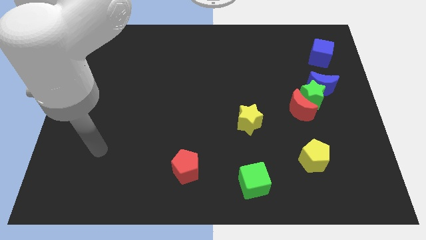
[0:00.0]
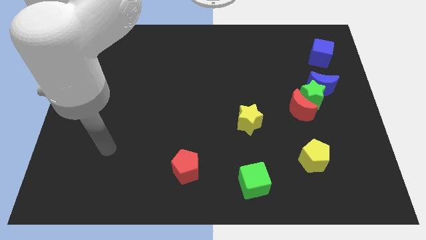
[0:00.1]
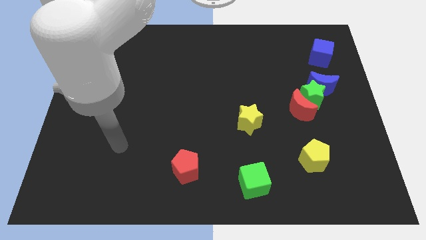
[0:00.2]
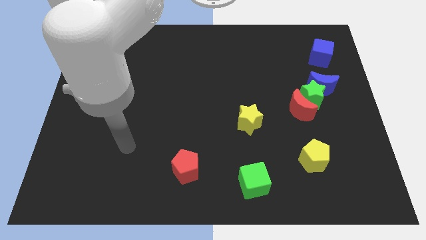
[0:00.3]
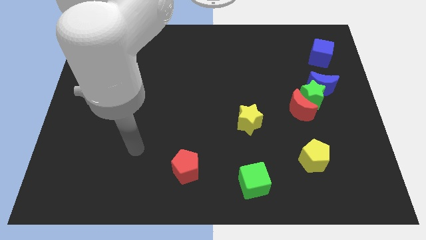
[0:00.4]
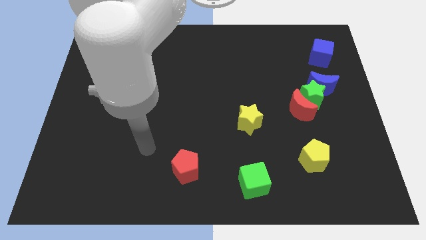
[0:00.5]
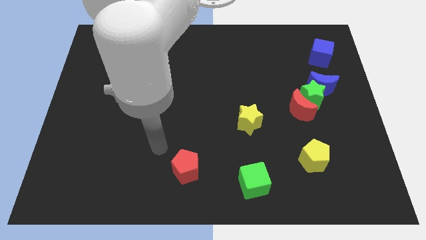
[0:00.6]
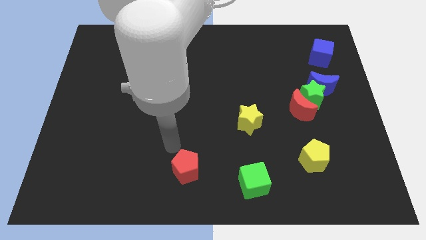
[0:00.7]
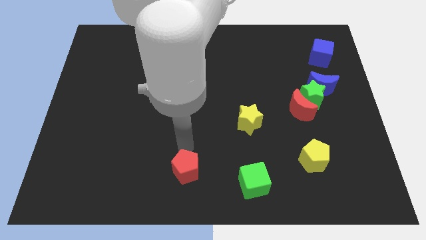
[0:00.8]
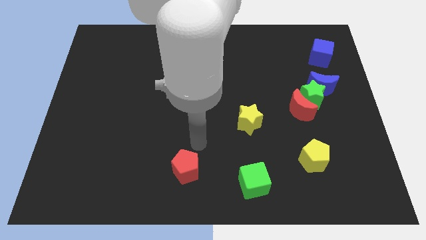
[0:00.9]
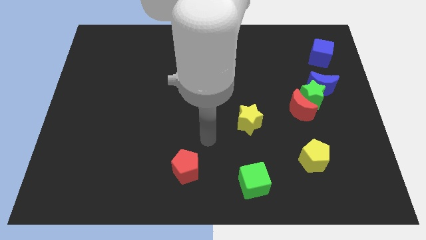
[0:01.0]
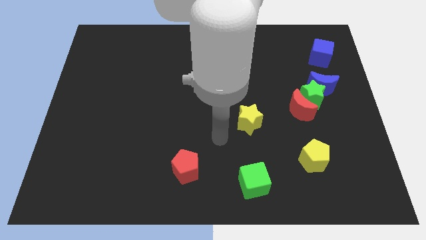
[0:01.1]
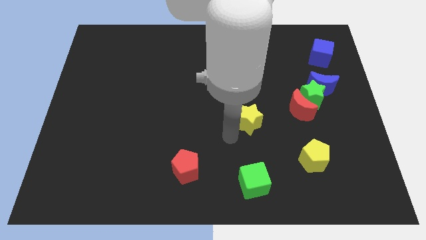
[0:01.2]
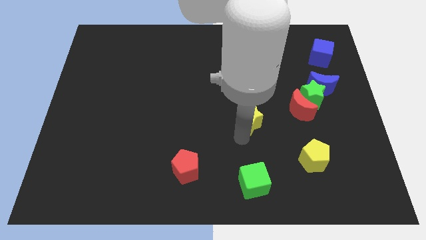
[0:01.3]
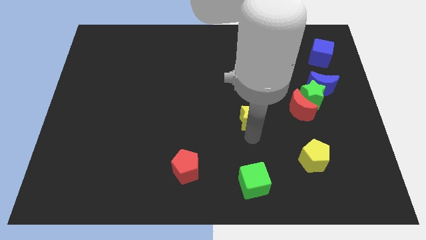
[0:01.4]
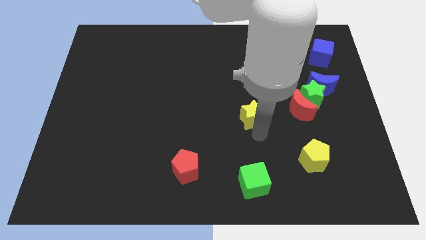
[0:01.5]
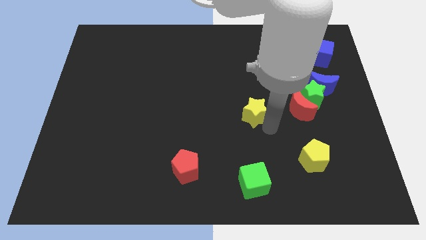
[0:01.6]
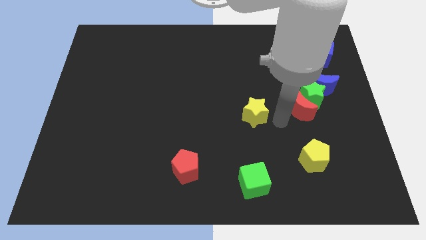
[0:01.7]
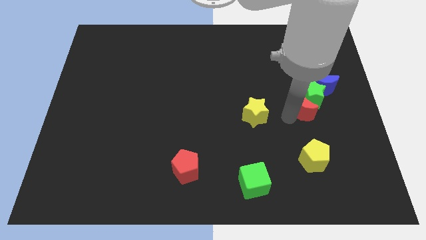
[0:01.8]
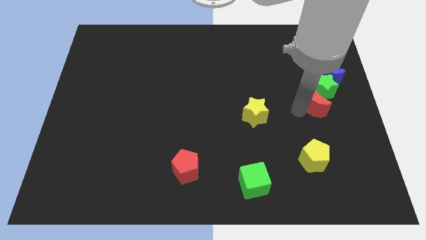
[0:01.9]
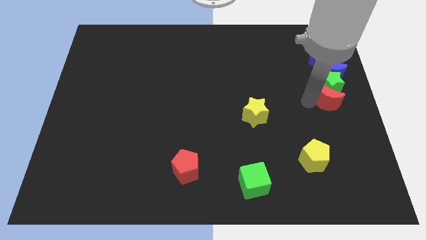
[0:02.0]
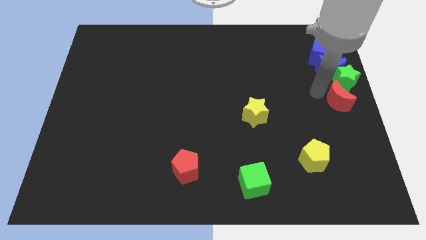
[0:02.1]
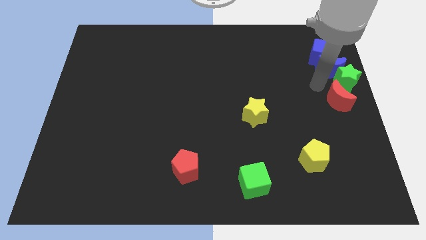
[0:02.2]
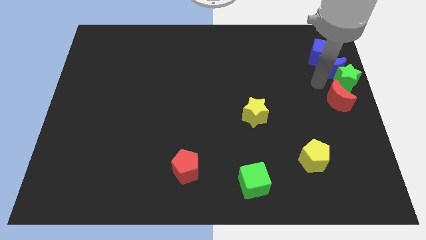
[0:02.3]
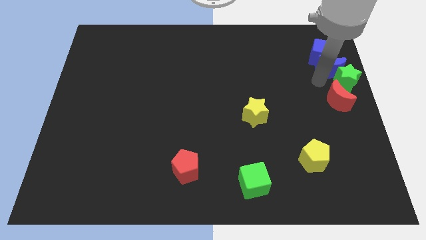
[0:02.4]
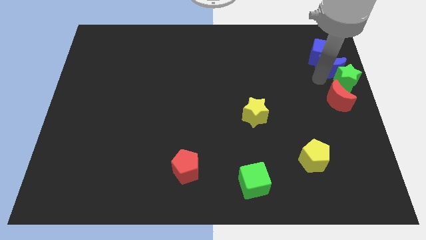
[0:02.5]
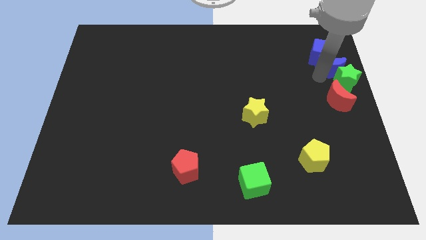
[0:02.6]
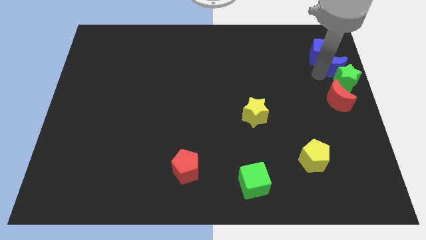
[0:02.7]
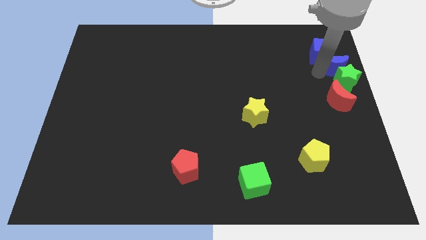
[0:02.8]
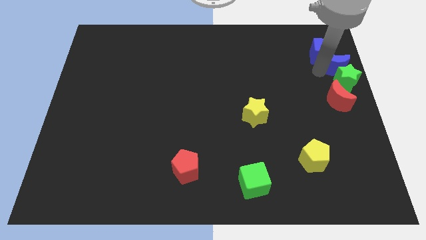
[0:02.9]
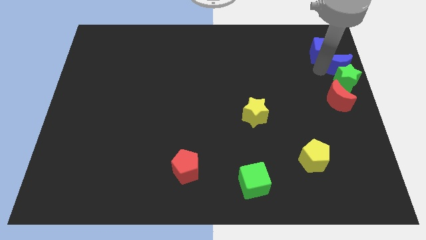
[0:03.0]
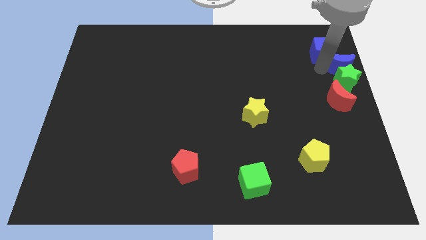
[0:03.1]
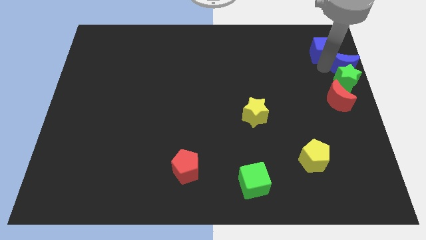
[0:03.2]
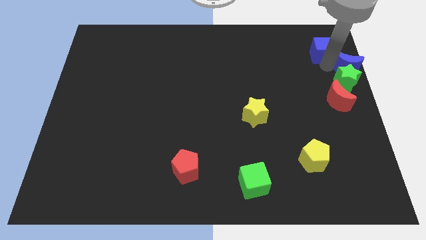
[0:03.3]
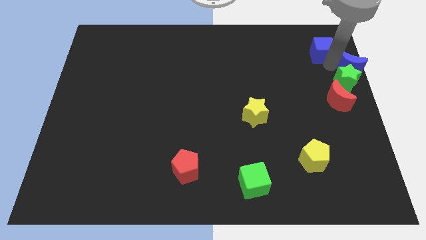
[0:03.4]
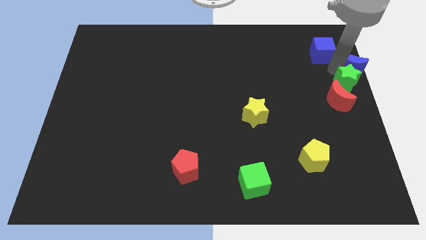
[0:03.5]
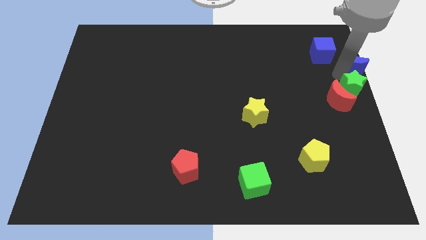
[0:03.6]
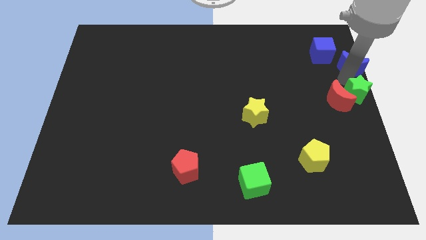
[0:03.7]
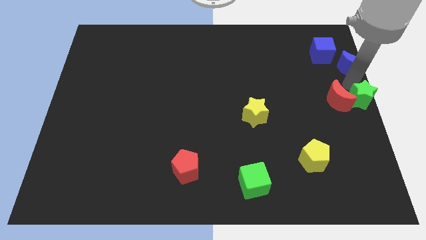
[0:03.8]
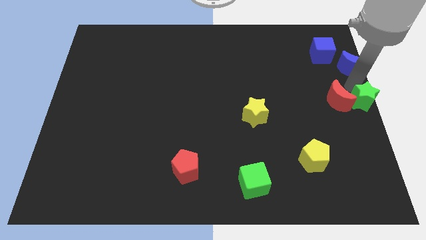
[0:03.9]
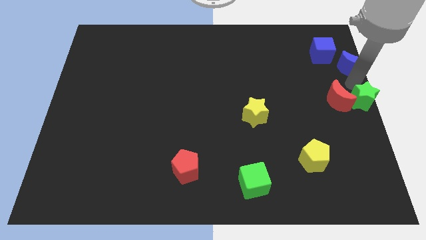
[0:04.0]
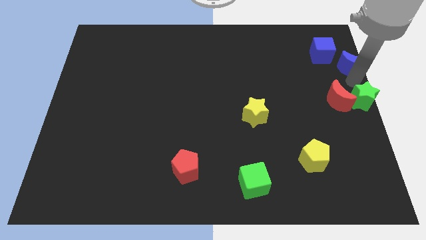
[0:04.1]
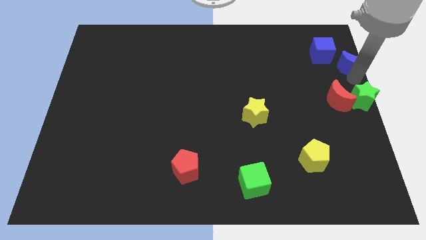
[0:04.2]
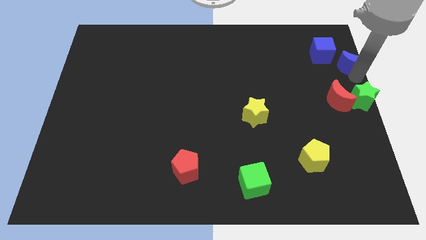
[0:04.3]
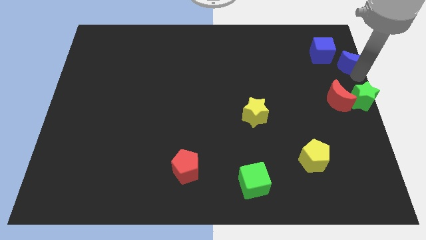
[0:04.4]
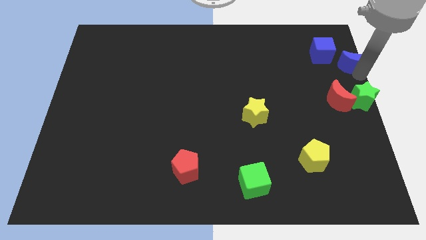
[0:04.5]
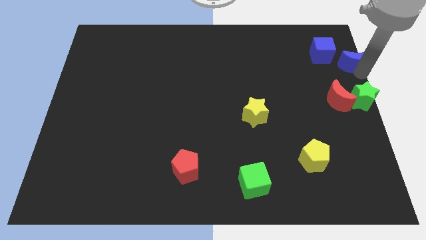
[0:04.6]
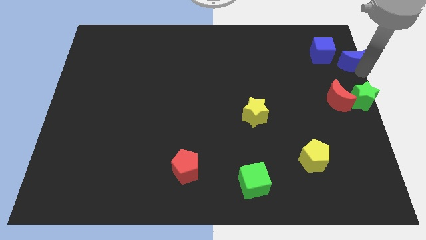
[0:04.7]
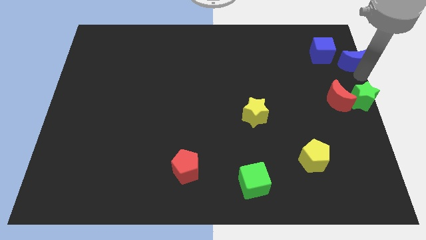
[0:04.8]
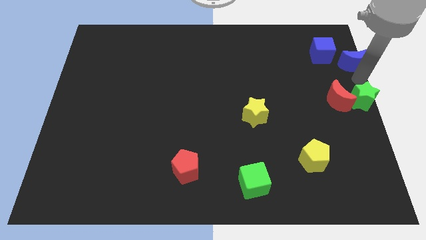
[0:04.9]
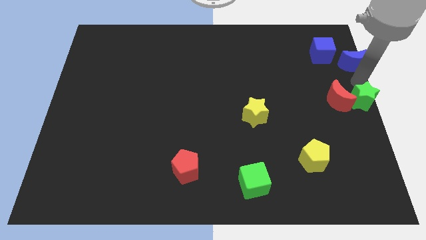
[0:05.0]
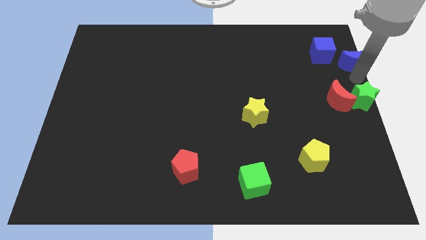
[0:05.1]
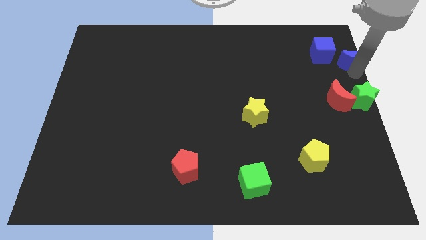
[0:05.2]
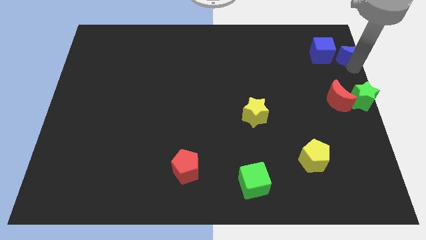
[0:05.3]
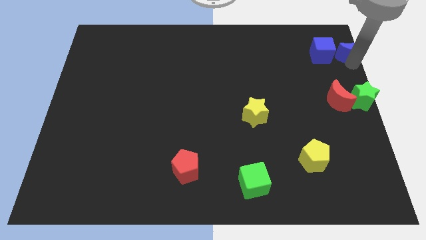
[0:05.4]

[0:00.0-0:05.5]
slide the blue moon to the top right of the board
